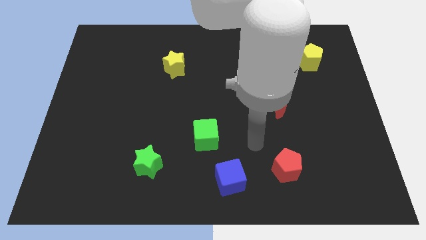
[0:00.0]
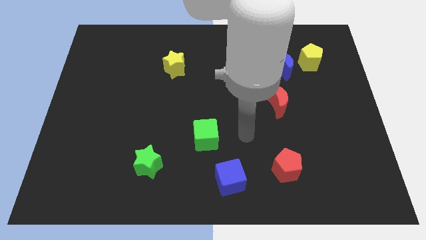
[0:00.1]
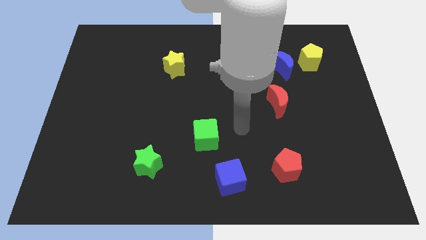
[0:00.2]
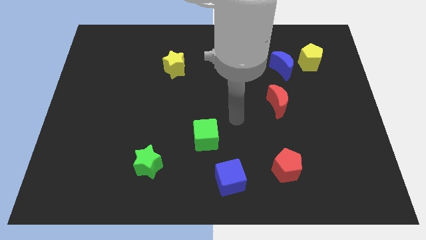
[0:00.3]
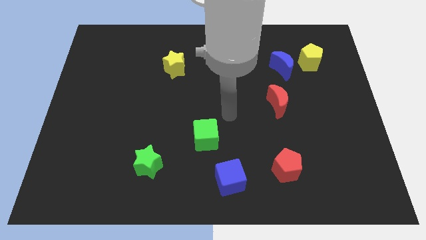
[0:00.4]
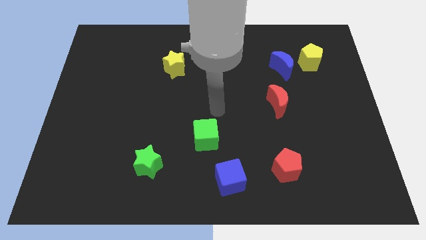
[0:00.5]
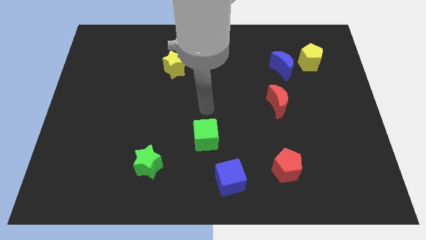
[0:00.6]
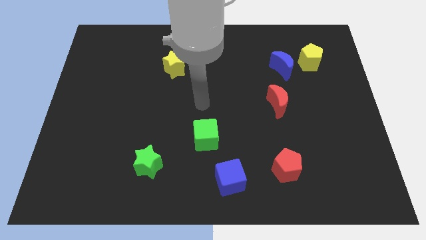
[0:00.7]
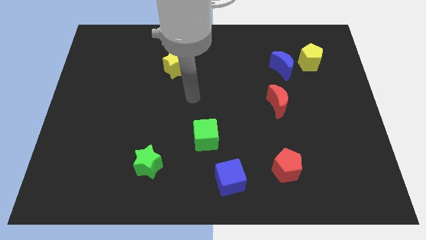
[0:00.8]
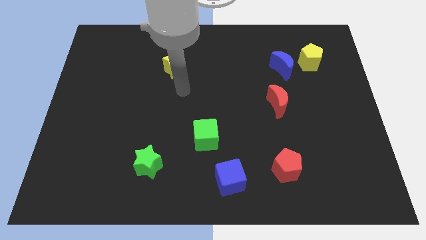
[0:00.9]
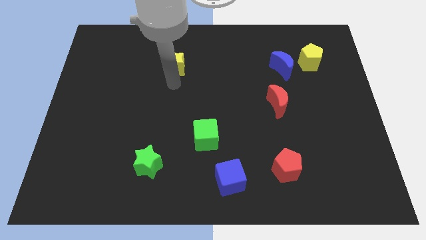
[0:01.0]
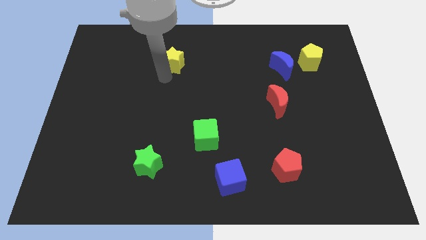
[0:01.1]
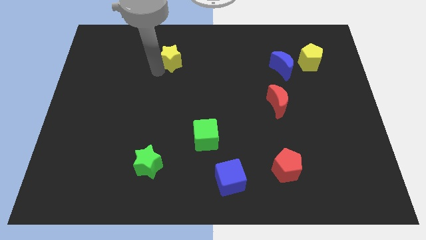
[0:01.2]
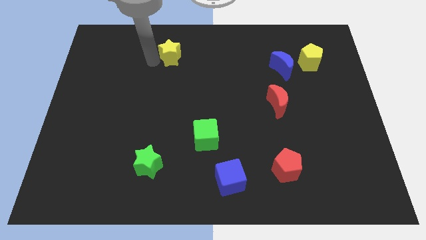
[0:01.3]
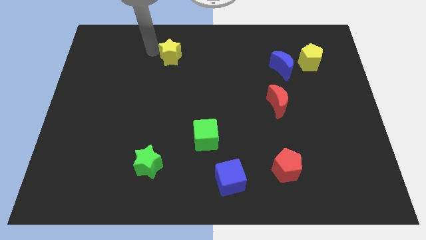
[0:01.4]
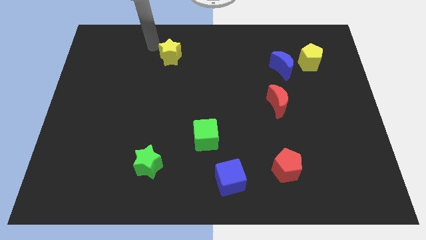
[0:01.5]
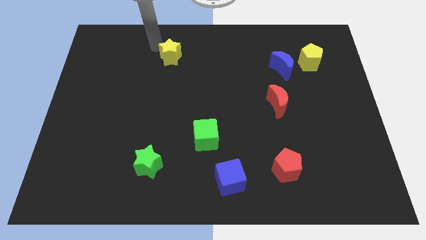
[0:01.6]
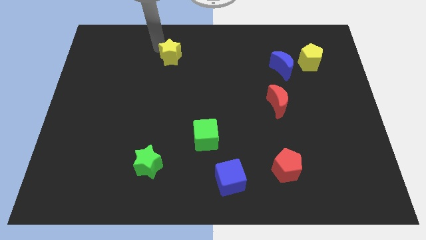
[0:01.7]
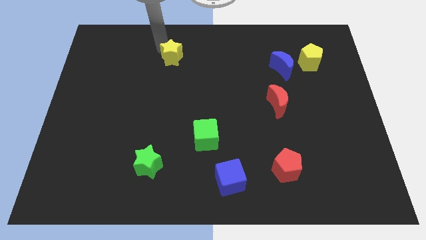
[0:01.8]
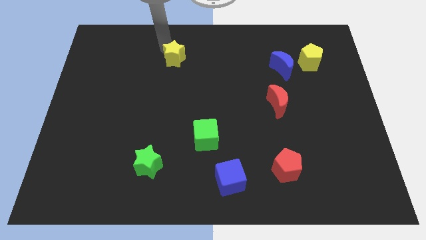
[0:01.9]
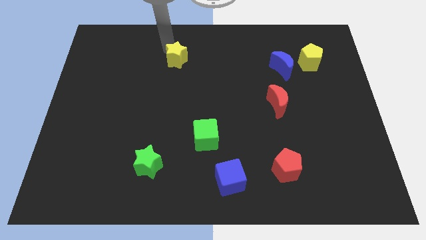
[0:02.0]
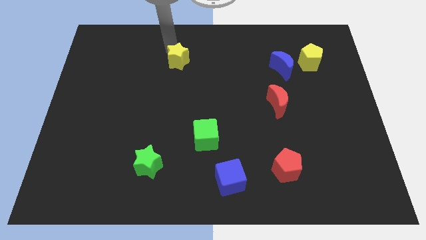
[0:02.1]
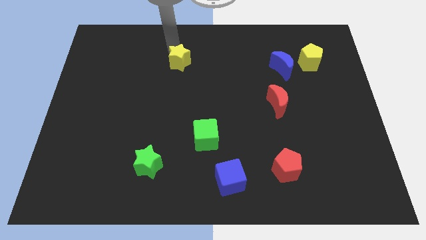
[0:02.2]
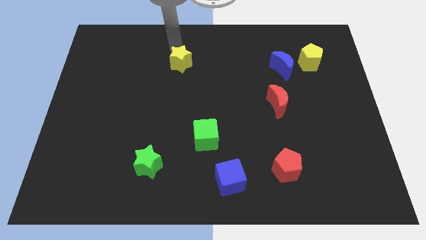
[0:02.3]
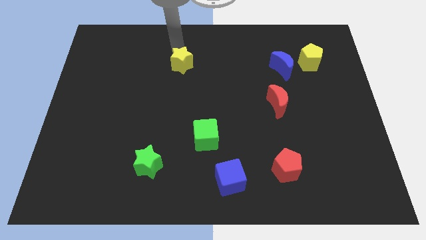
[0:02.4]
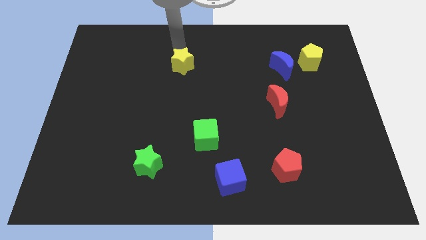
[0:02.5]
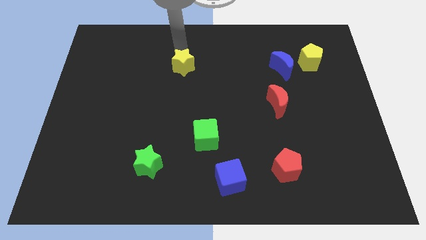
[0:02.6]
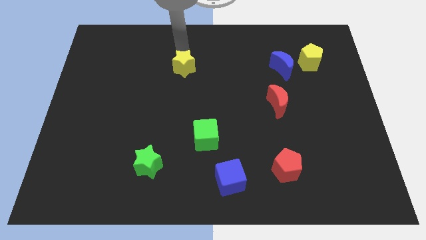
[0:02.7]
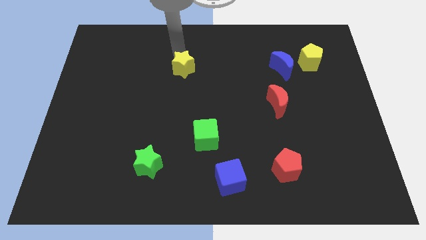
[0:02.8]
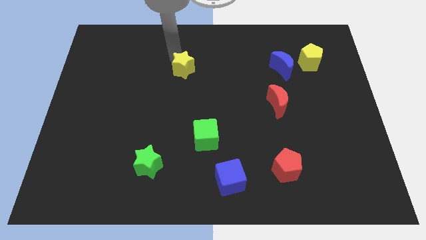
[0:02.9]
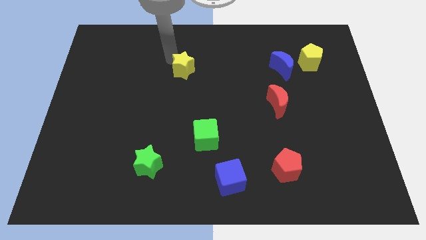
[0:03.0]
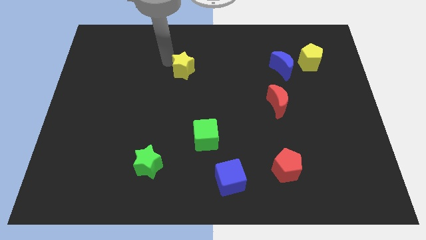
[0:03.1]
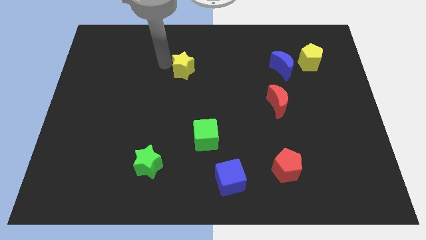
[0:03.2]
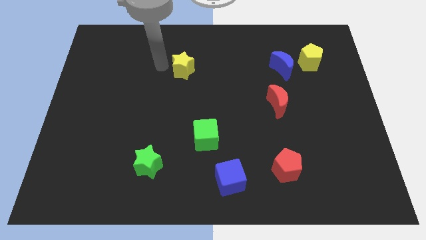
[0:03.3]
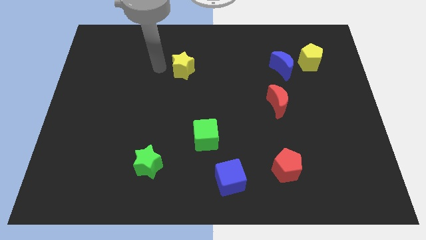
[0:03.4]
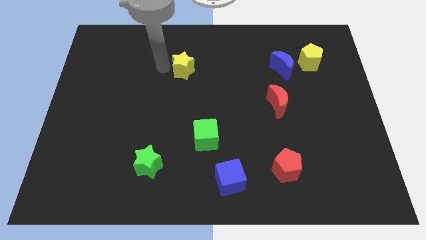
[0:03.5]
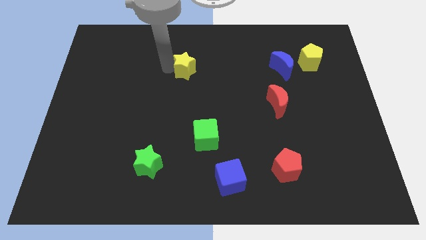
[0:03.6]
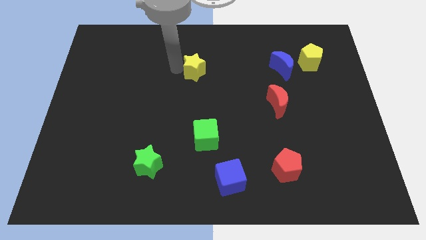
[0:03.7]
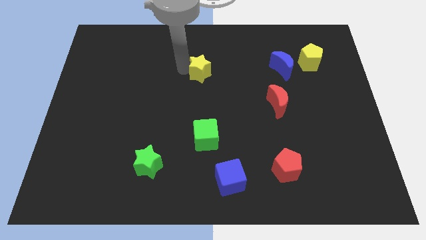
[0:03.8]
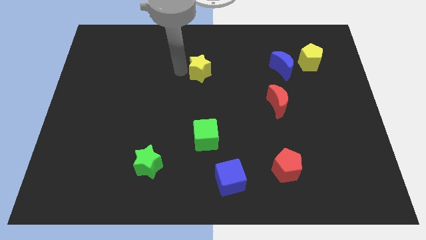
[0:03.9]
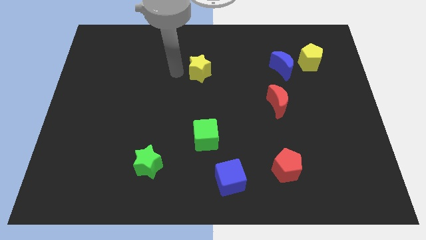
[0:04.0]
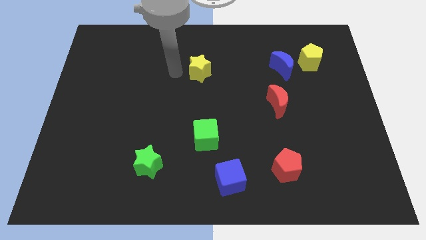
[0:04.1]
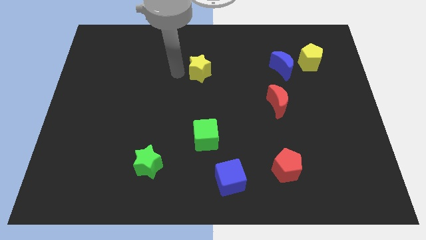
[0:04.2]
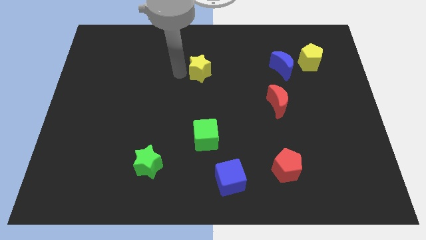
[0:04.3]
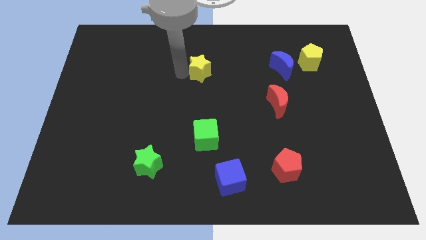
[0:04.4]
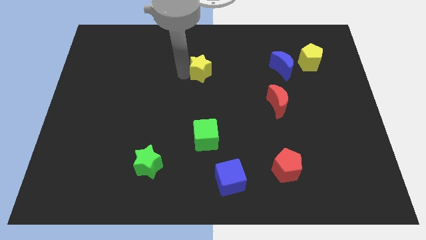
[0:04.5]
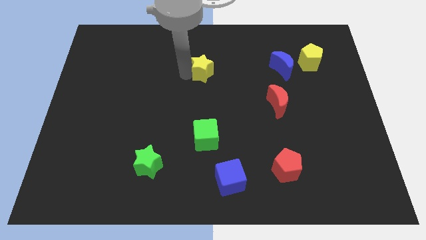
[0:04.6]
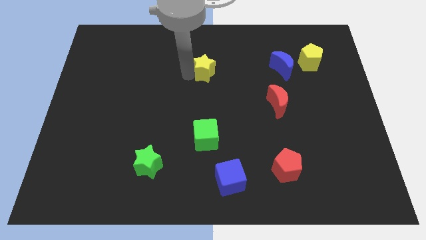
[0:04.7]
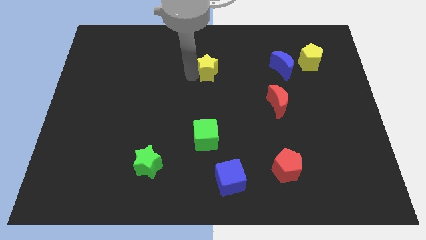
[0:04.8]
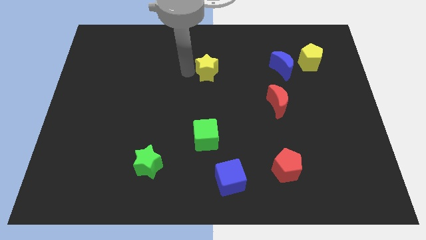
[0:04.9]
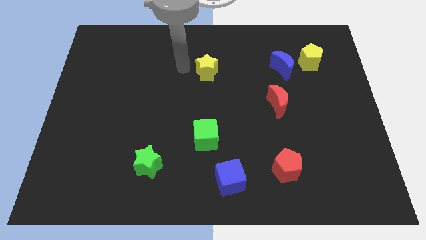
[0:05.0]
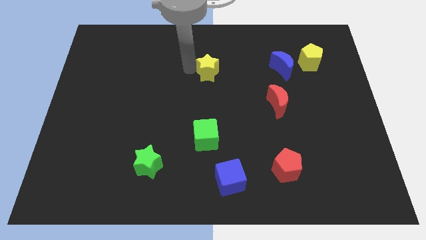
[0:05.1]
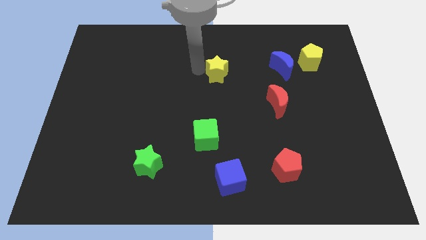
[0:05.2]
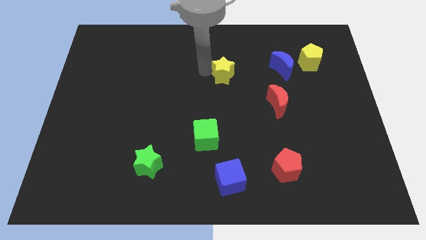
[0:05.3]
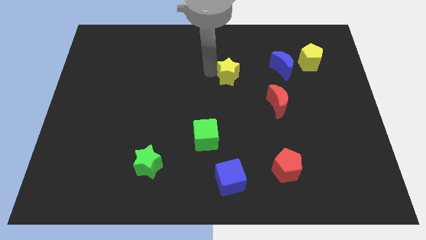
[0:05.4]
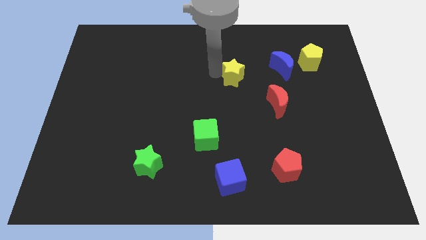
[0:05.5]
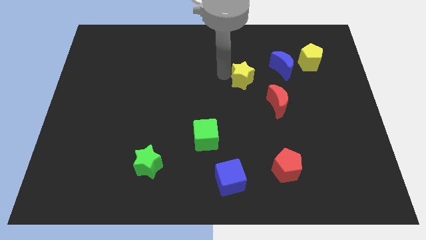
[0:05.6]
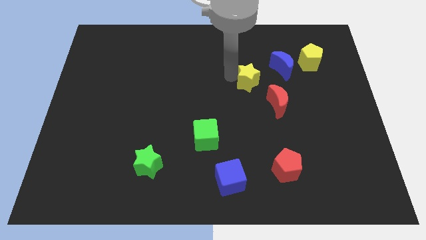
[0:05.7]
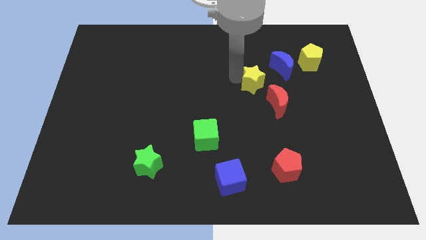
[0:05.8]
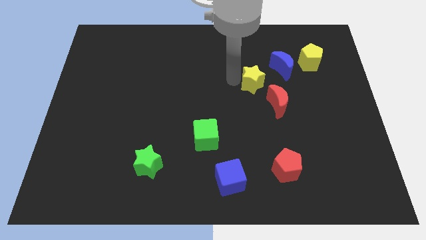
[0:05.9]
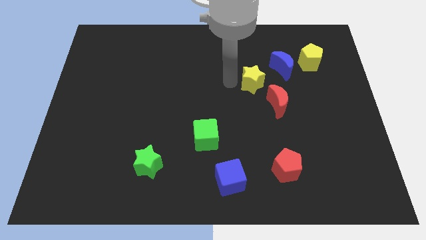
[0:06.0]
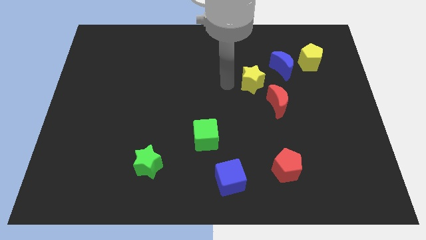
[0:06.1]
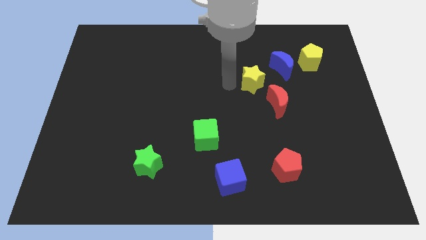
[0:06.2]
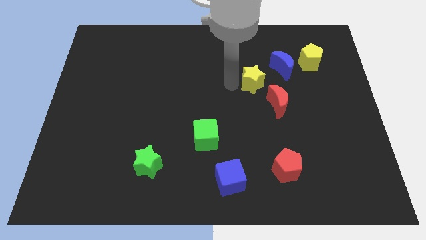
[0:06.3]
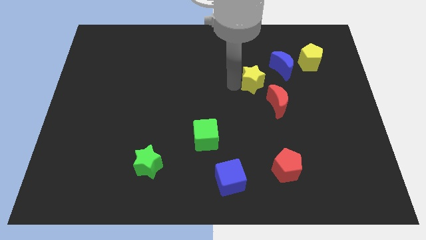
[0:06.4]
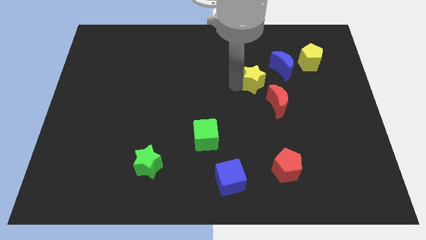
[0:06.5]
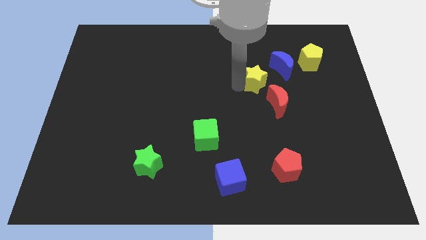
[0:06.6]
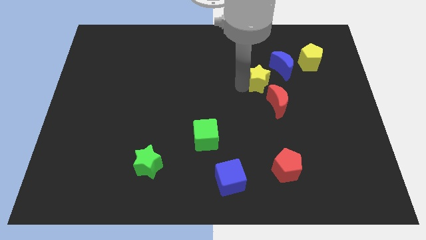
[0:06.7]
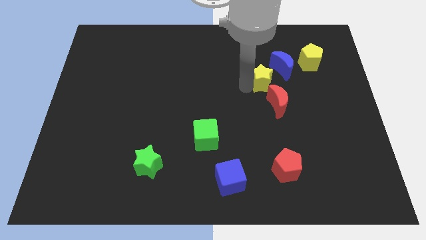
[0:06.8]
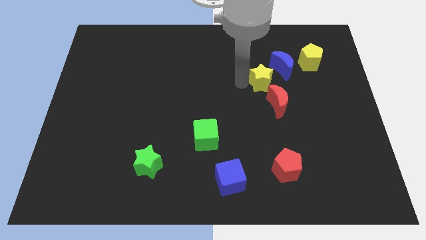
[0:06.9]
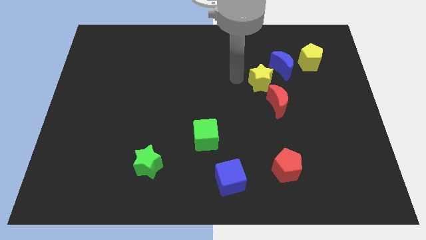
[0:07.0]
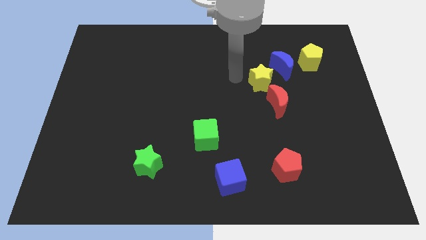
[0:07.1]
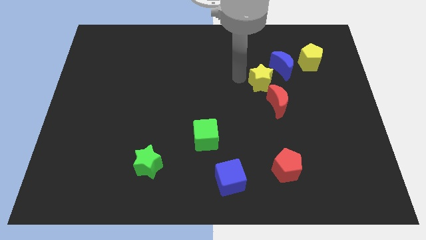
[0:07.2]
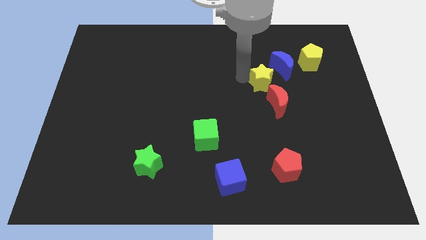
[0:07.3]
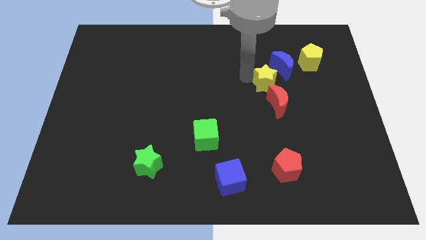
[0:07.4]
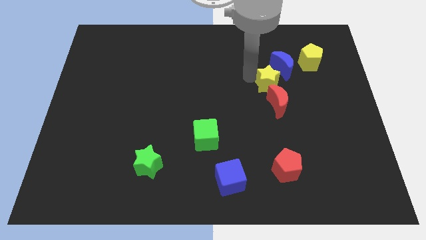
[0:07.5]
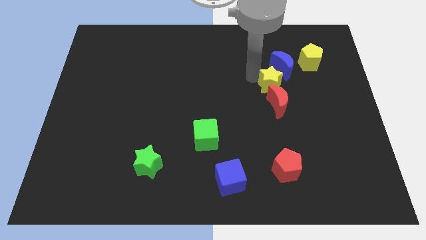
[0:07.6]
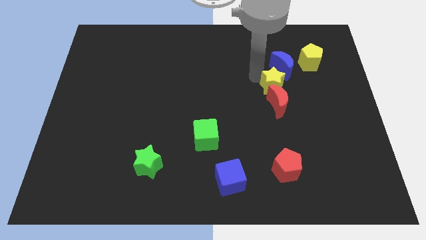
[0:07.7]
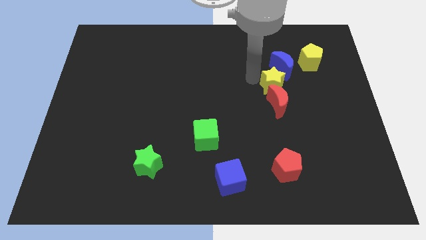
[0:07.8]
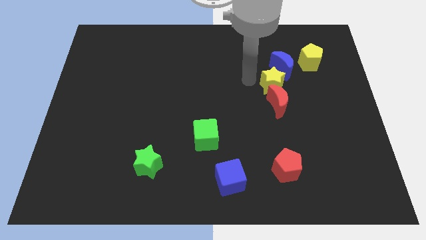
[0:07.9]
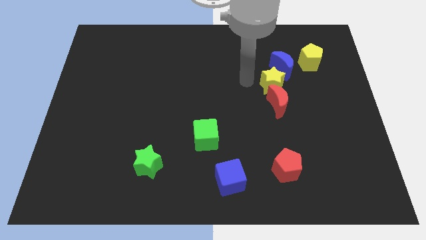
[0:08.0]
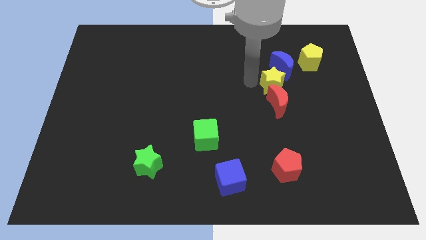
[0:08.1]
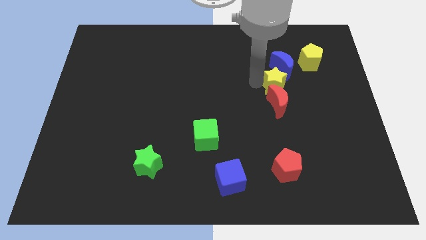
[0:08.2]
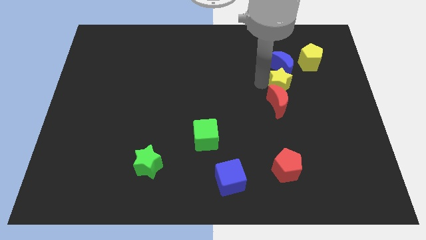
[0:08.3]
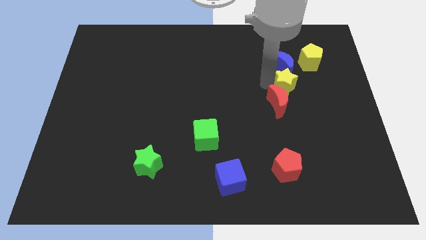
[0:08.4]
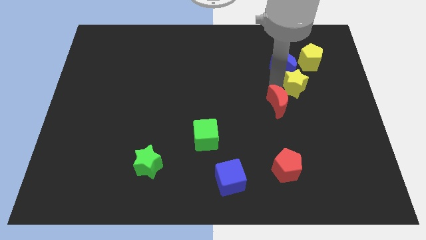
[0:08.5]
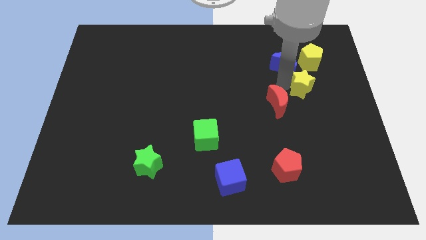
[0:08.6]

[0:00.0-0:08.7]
put the yellow star to the bottom side of the yellow pentagon
